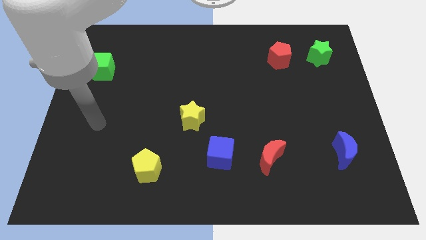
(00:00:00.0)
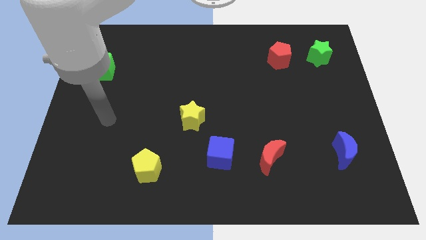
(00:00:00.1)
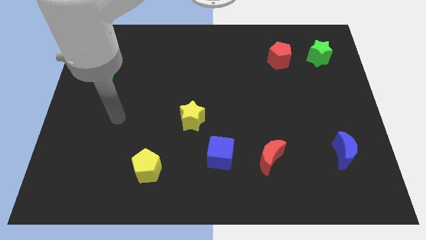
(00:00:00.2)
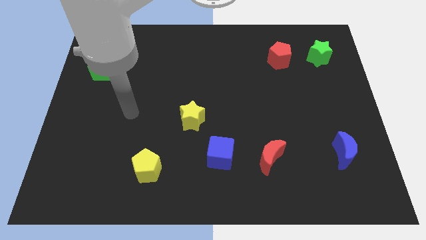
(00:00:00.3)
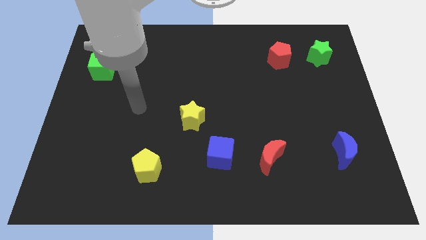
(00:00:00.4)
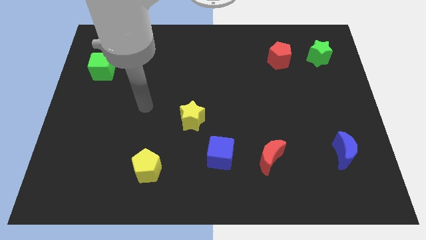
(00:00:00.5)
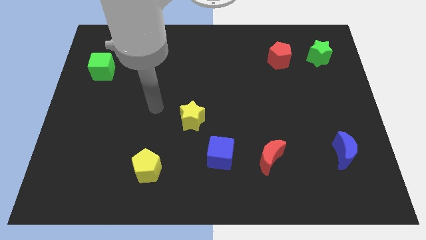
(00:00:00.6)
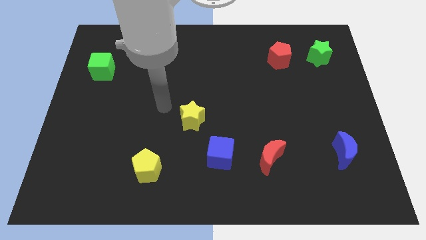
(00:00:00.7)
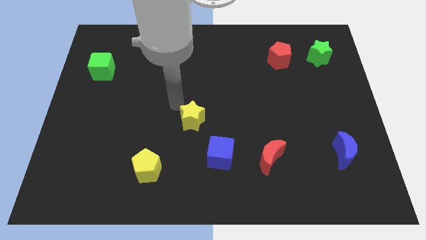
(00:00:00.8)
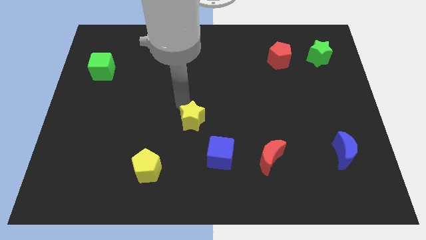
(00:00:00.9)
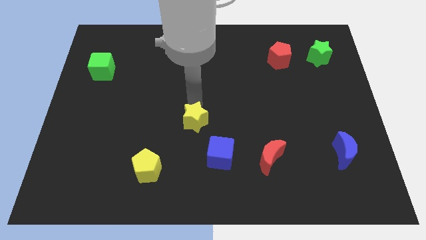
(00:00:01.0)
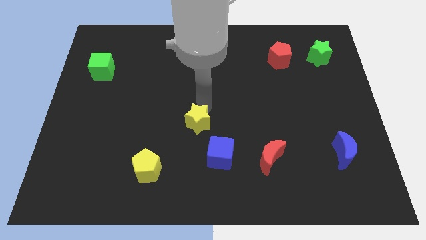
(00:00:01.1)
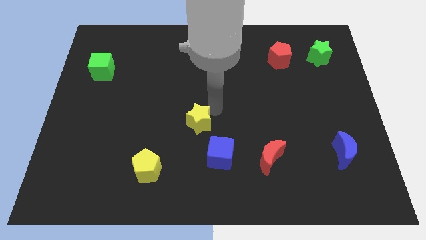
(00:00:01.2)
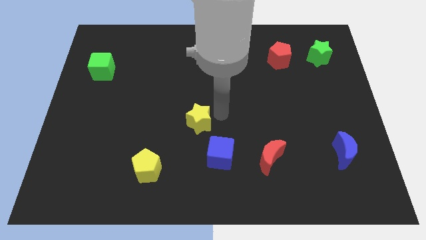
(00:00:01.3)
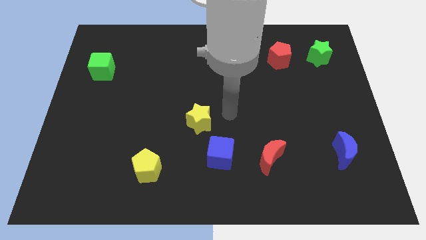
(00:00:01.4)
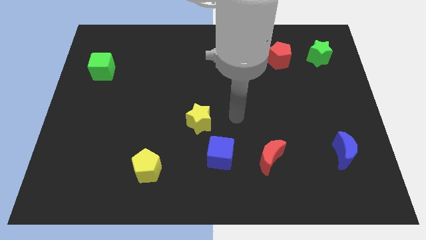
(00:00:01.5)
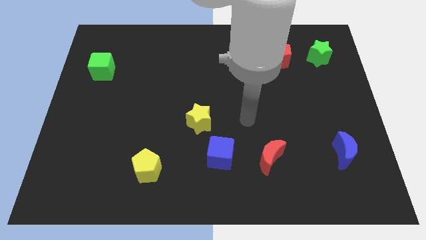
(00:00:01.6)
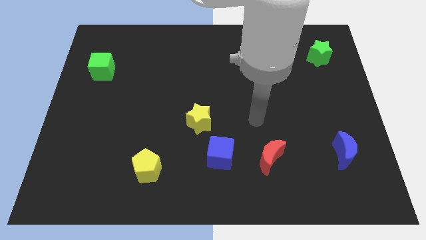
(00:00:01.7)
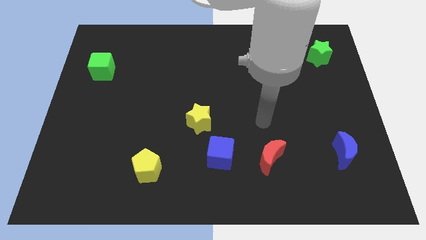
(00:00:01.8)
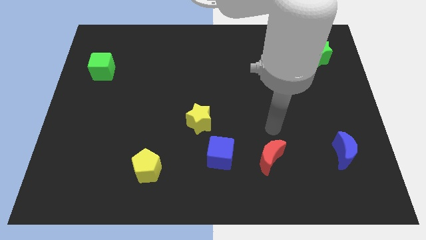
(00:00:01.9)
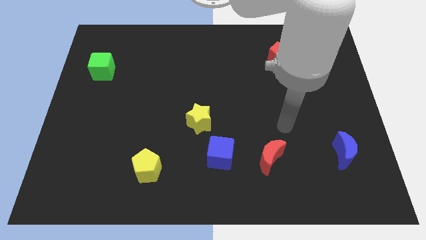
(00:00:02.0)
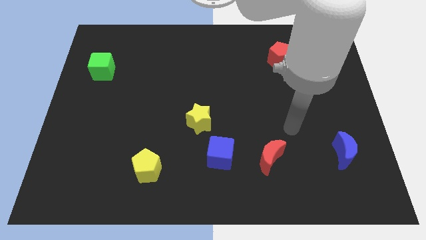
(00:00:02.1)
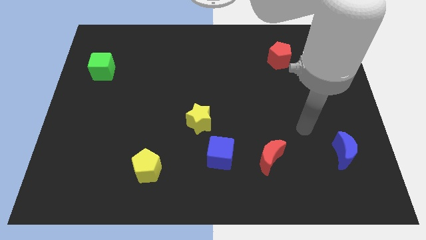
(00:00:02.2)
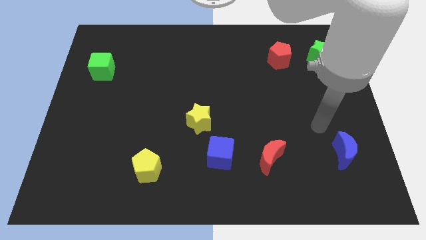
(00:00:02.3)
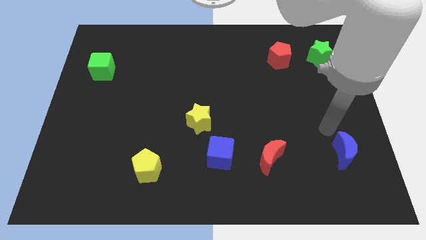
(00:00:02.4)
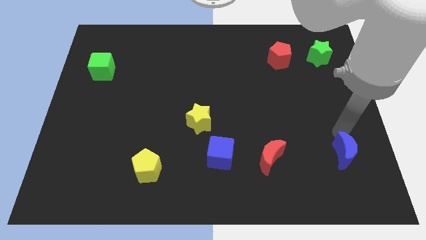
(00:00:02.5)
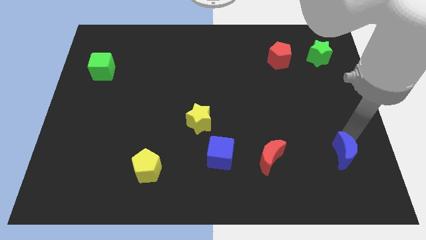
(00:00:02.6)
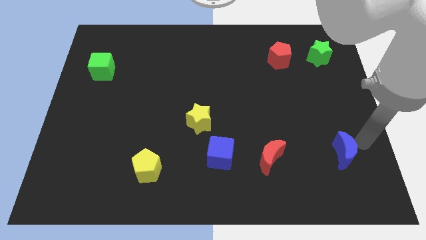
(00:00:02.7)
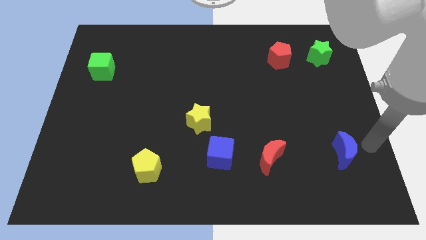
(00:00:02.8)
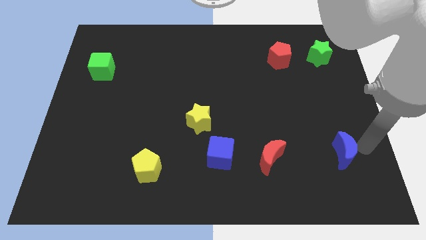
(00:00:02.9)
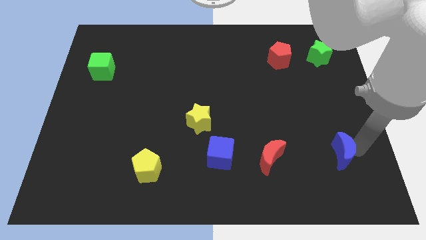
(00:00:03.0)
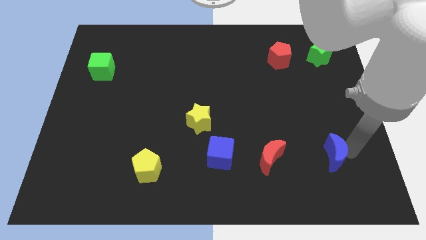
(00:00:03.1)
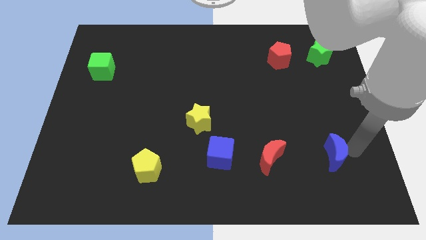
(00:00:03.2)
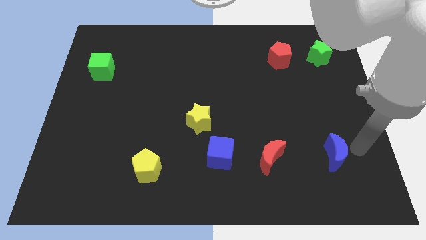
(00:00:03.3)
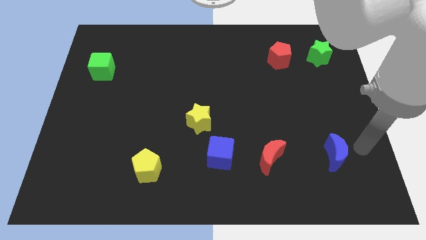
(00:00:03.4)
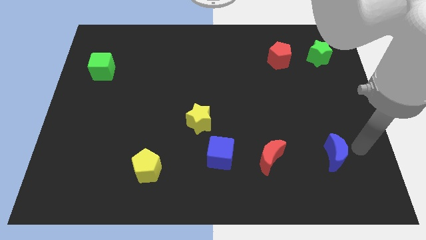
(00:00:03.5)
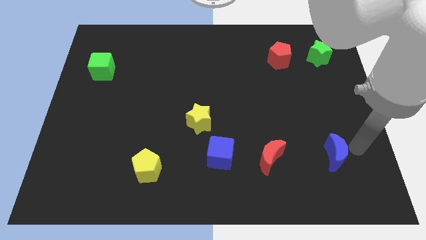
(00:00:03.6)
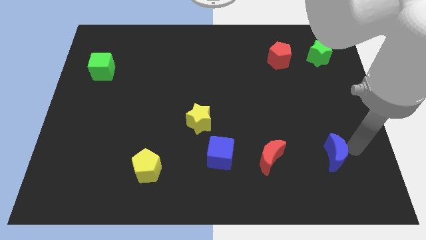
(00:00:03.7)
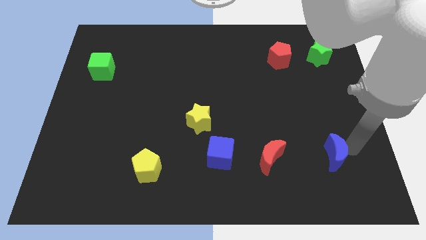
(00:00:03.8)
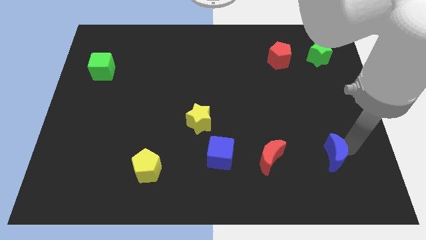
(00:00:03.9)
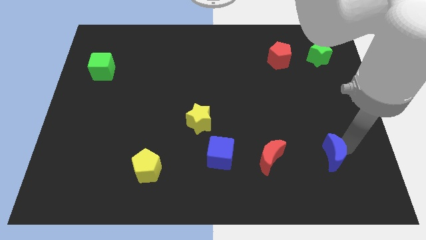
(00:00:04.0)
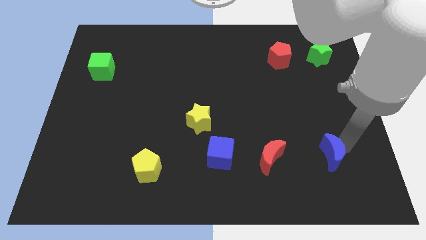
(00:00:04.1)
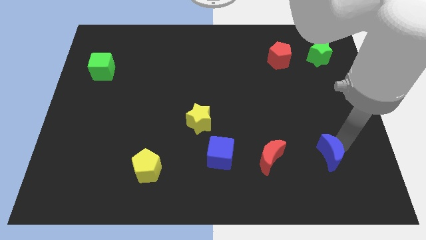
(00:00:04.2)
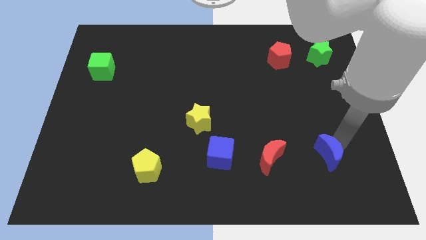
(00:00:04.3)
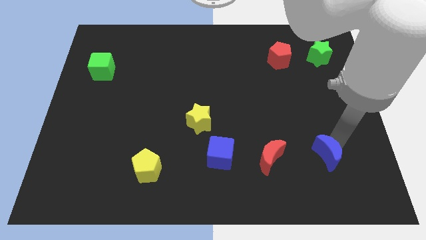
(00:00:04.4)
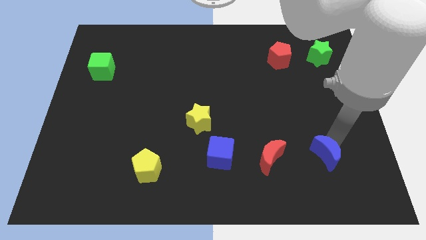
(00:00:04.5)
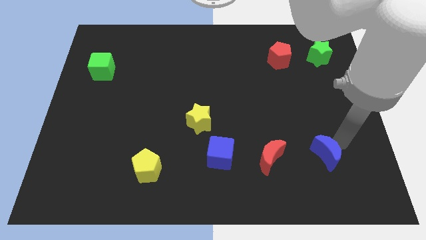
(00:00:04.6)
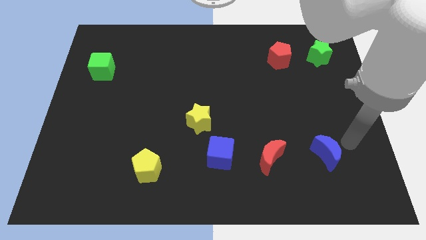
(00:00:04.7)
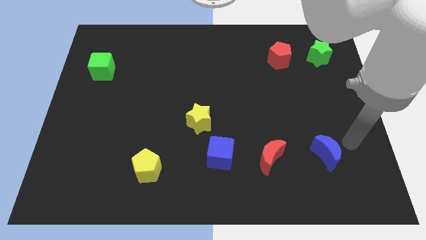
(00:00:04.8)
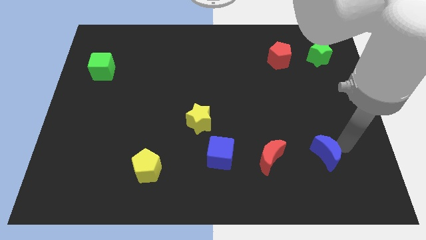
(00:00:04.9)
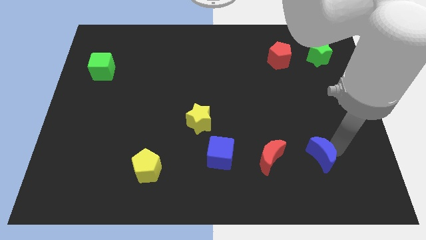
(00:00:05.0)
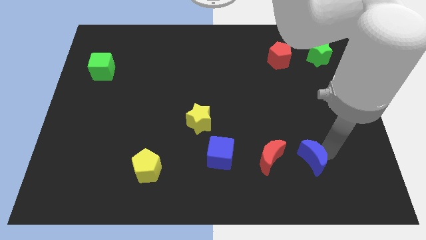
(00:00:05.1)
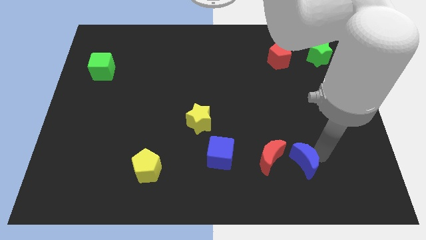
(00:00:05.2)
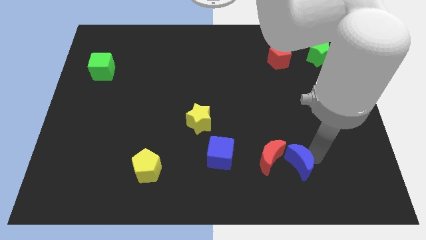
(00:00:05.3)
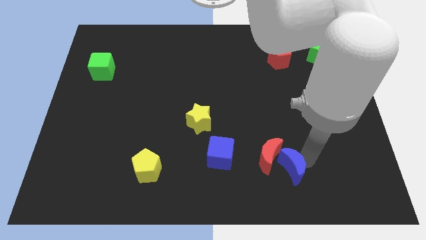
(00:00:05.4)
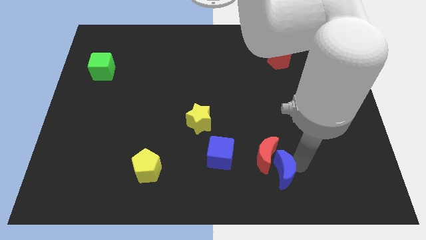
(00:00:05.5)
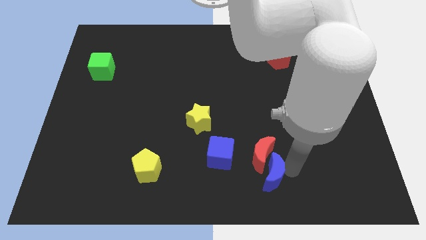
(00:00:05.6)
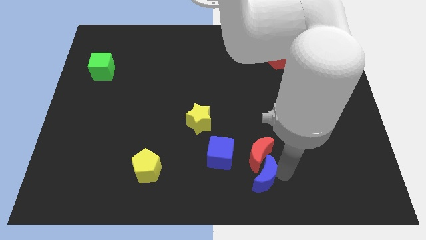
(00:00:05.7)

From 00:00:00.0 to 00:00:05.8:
put the blue moon to the bottom right side of the blue cube

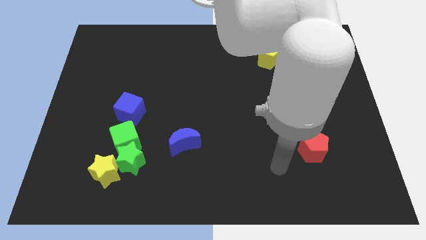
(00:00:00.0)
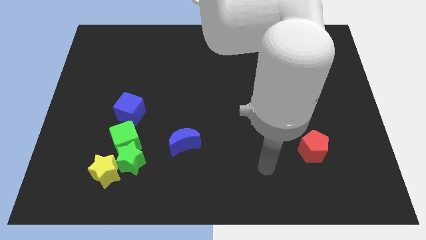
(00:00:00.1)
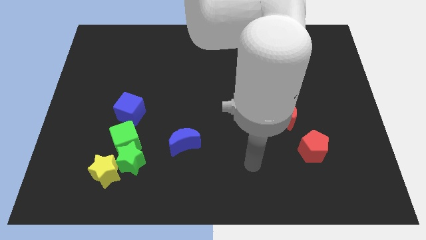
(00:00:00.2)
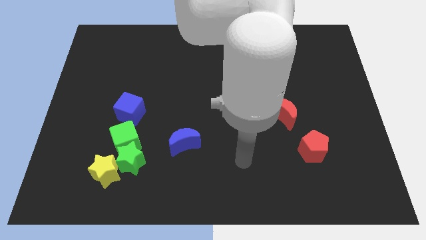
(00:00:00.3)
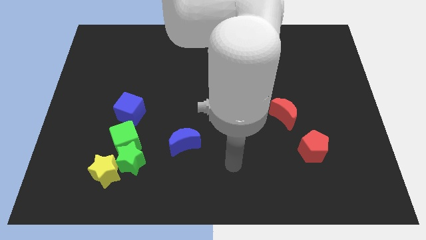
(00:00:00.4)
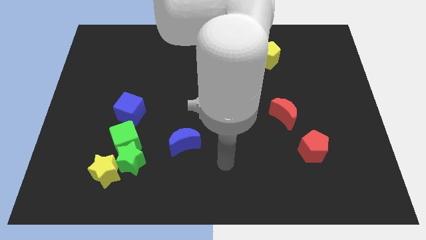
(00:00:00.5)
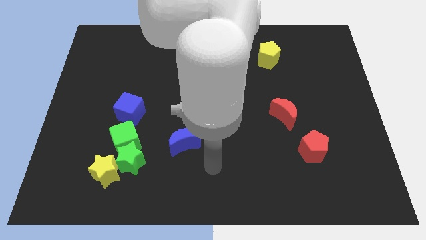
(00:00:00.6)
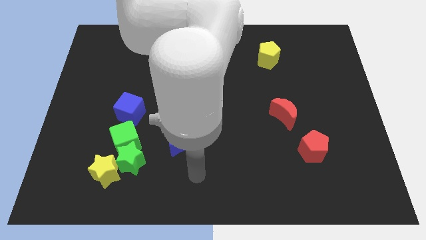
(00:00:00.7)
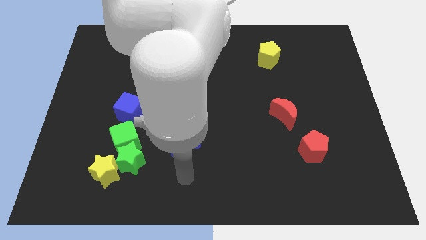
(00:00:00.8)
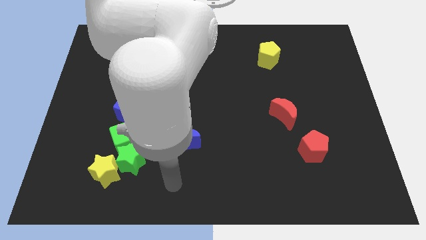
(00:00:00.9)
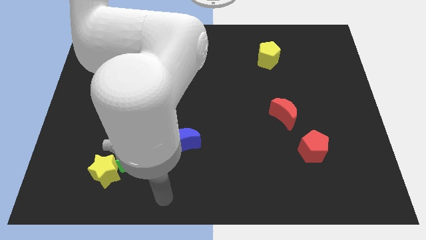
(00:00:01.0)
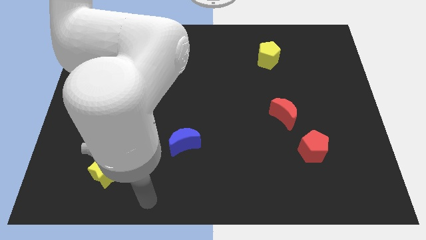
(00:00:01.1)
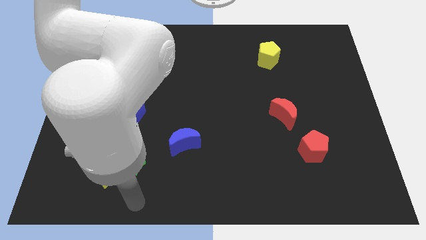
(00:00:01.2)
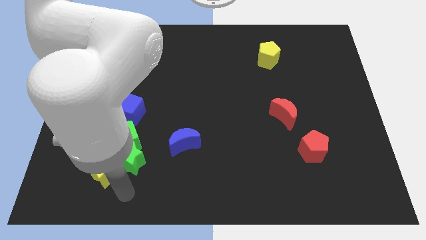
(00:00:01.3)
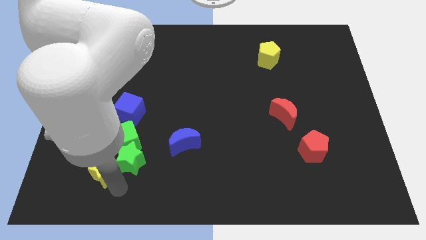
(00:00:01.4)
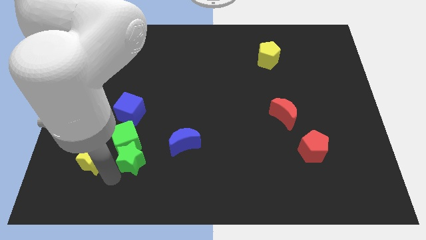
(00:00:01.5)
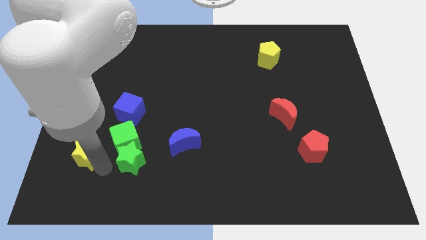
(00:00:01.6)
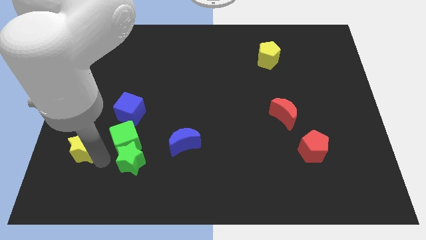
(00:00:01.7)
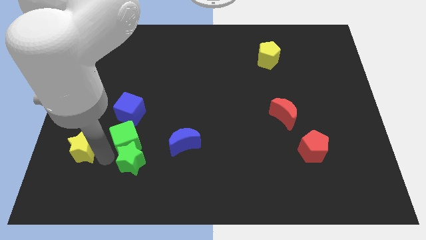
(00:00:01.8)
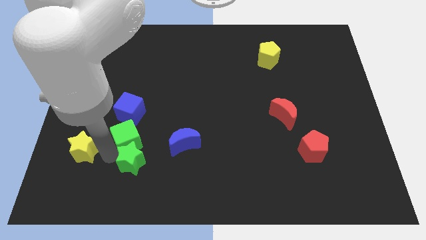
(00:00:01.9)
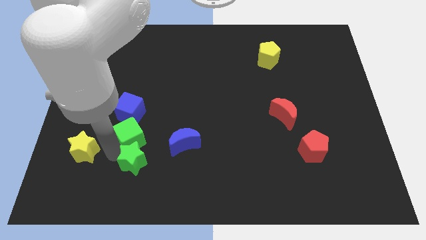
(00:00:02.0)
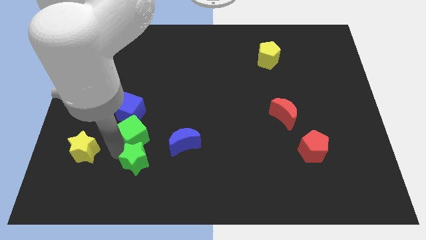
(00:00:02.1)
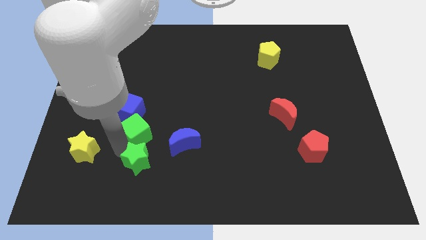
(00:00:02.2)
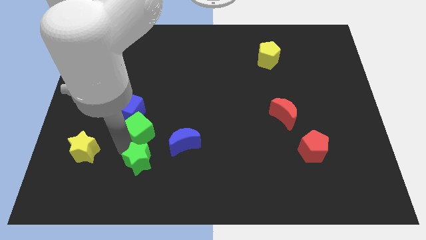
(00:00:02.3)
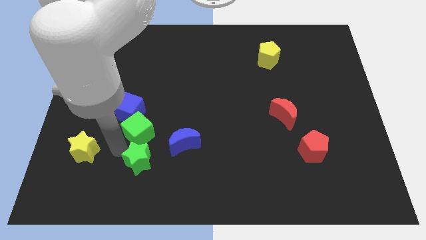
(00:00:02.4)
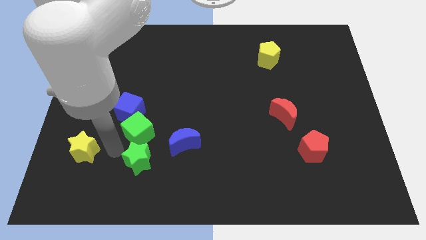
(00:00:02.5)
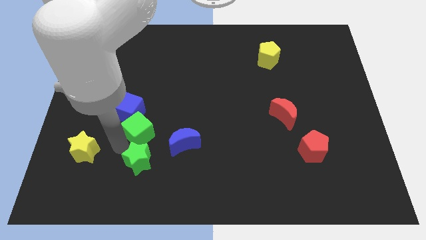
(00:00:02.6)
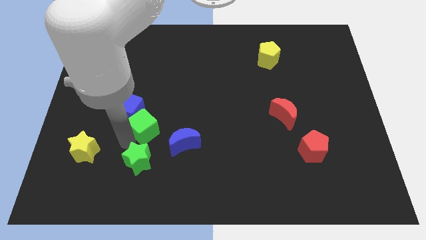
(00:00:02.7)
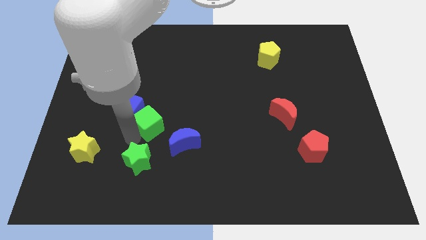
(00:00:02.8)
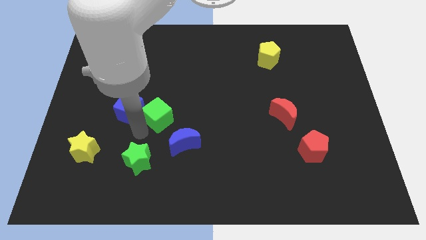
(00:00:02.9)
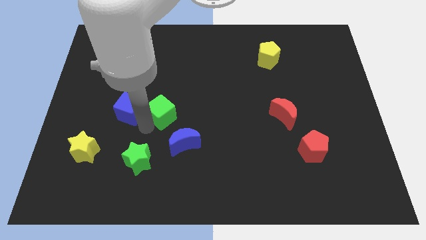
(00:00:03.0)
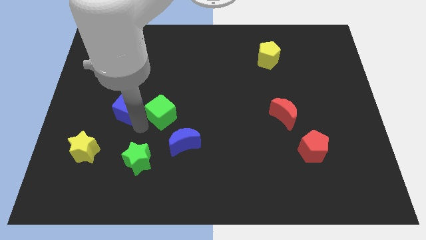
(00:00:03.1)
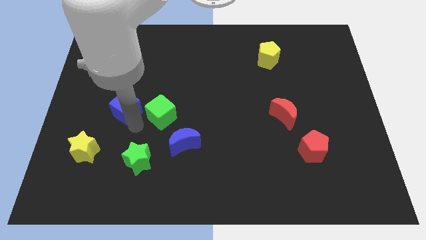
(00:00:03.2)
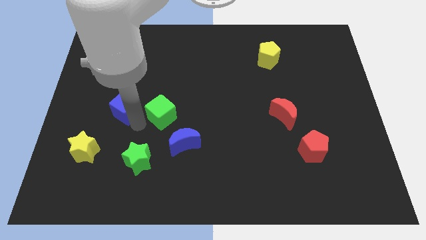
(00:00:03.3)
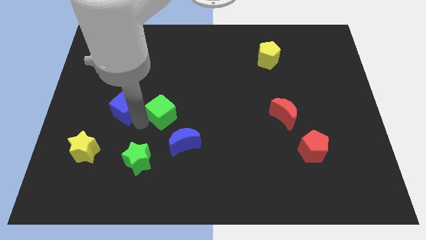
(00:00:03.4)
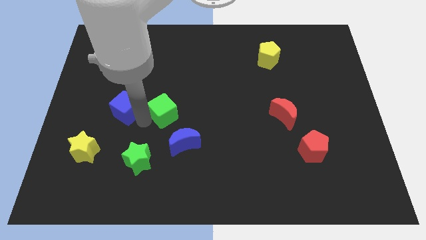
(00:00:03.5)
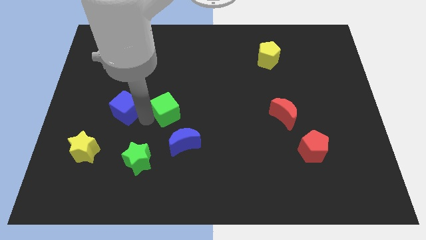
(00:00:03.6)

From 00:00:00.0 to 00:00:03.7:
push the green cube to the top of the blue moon
